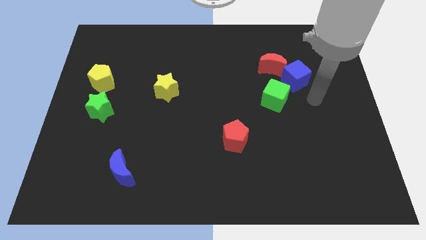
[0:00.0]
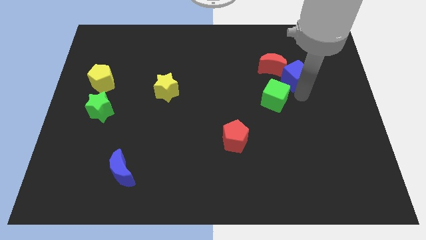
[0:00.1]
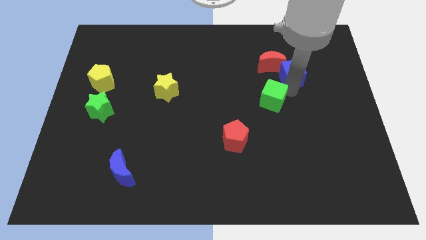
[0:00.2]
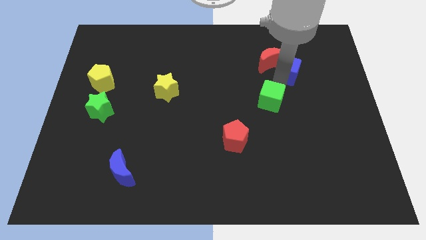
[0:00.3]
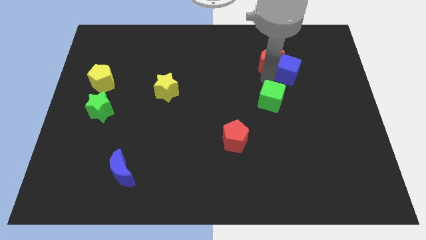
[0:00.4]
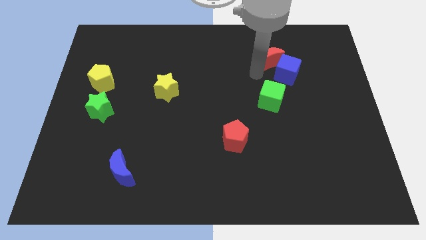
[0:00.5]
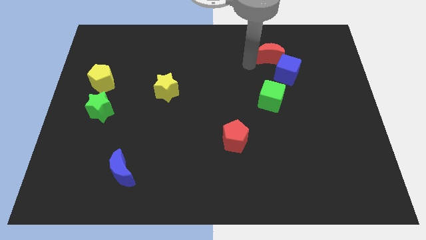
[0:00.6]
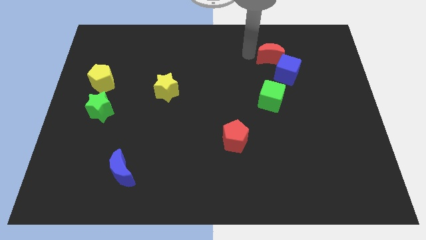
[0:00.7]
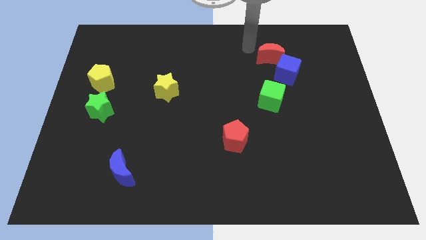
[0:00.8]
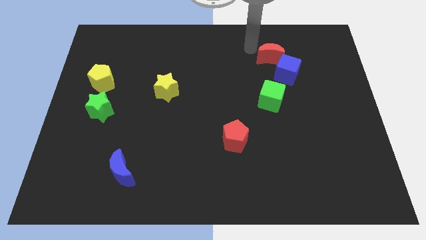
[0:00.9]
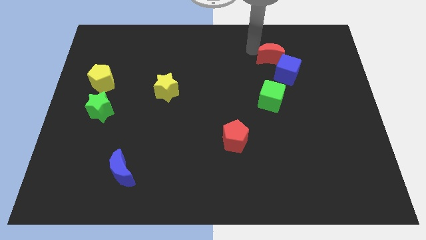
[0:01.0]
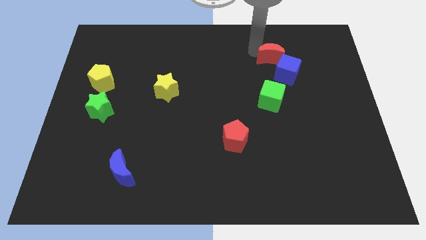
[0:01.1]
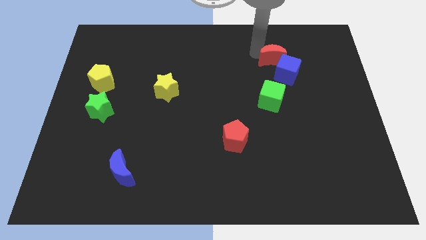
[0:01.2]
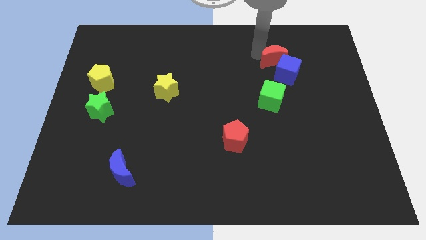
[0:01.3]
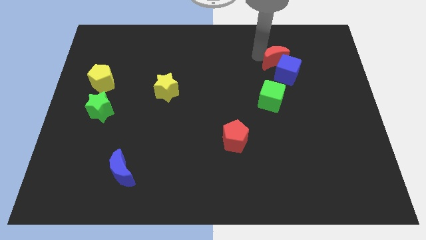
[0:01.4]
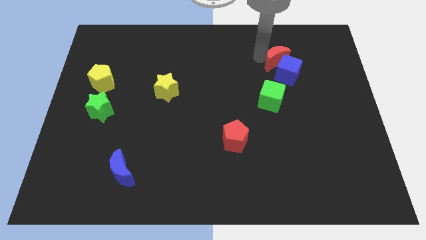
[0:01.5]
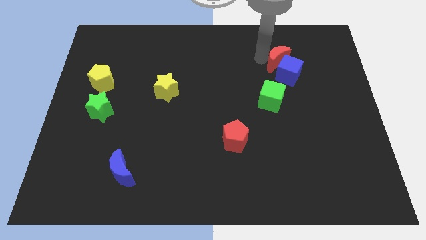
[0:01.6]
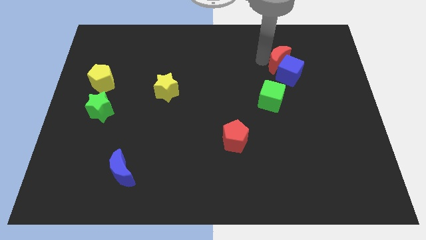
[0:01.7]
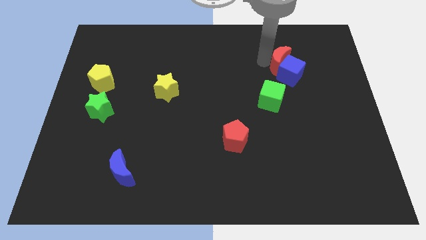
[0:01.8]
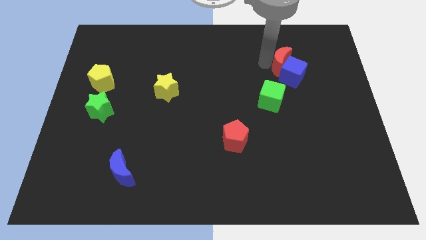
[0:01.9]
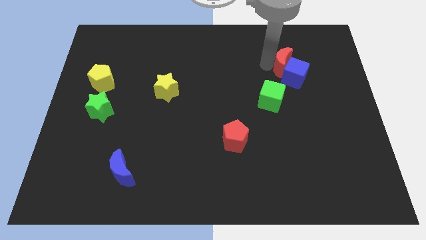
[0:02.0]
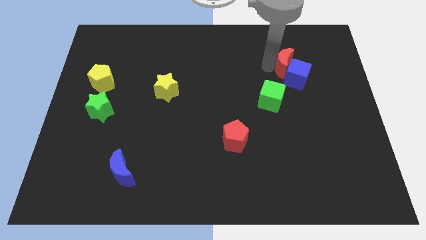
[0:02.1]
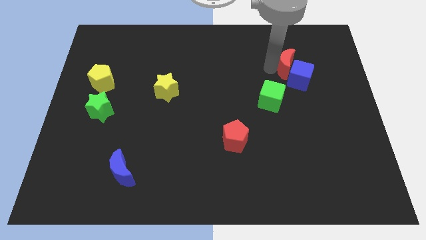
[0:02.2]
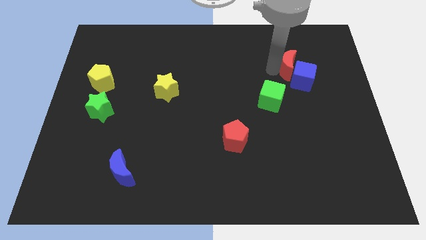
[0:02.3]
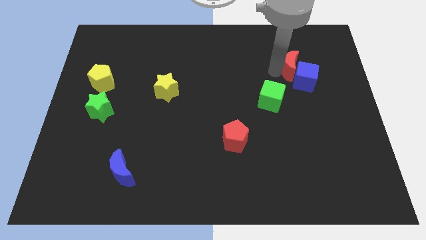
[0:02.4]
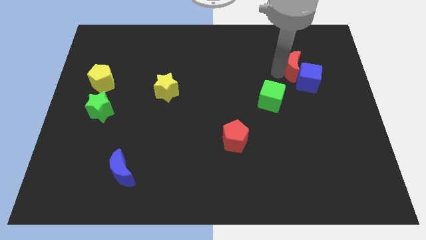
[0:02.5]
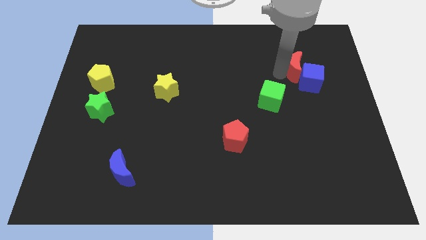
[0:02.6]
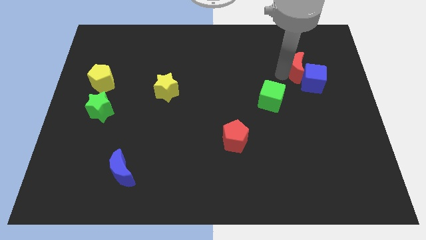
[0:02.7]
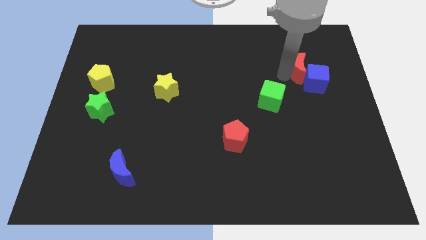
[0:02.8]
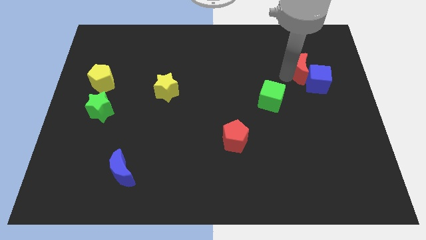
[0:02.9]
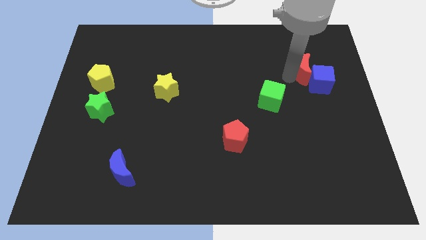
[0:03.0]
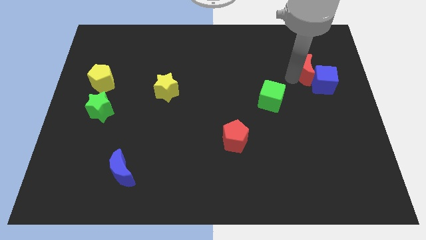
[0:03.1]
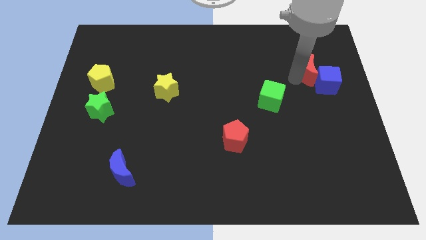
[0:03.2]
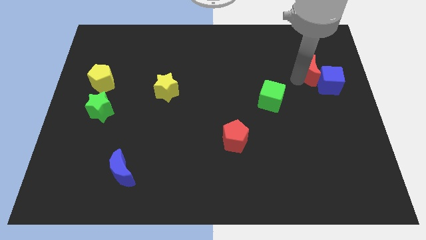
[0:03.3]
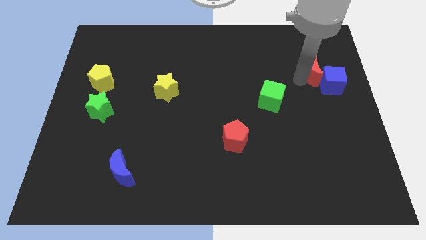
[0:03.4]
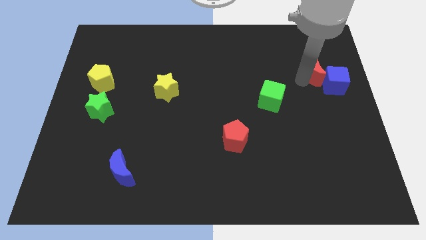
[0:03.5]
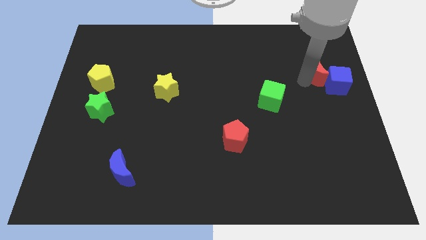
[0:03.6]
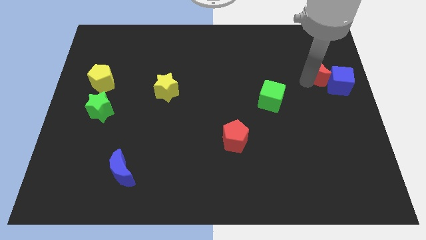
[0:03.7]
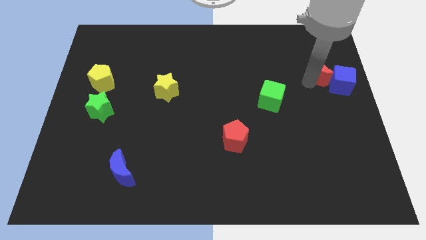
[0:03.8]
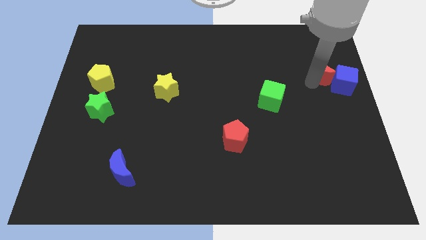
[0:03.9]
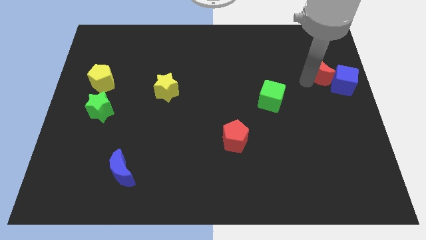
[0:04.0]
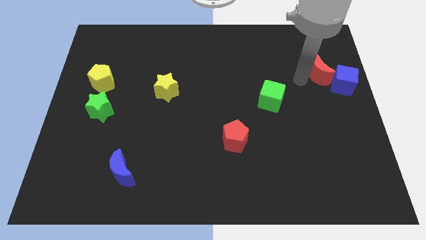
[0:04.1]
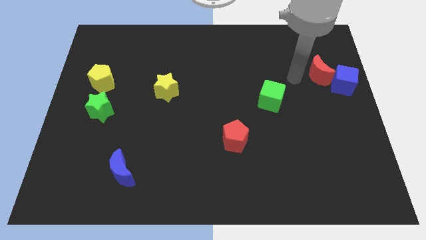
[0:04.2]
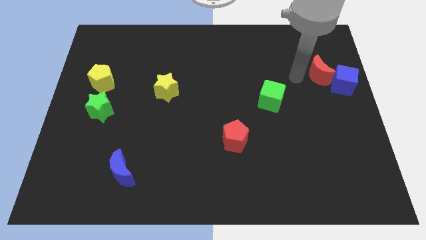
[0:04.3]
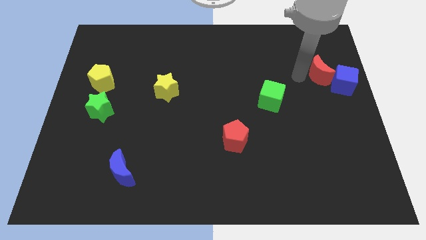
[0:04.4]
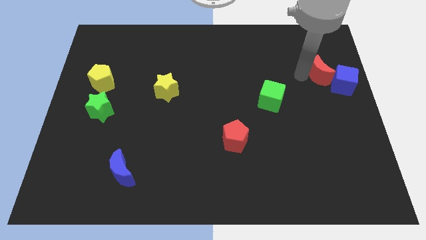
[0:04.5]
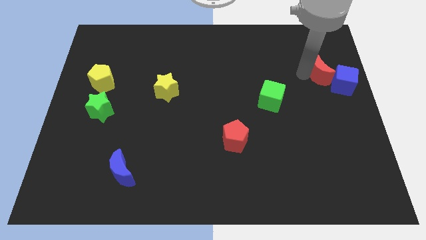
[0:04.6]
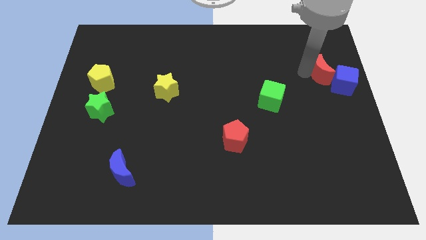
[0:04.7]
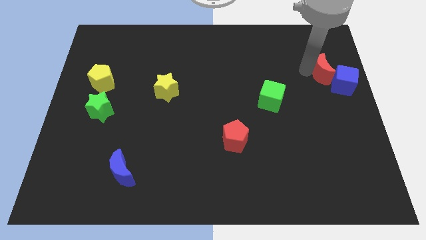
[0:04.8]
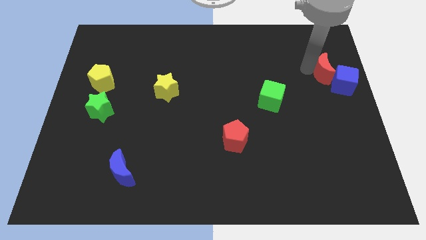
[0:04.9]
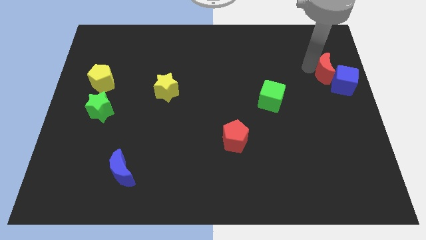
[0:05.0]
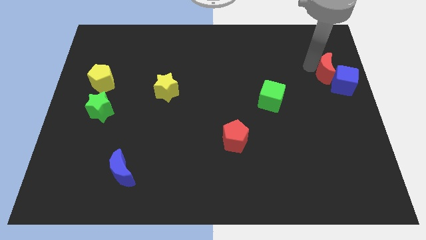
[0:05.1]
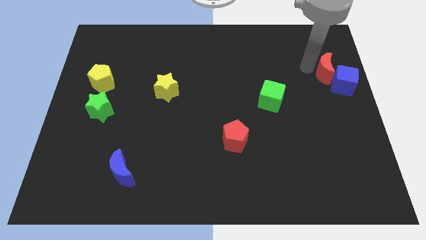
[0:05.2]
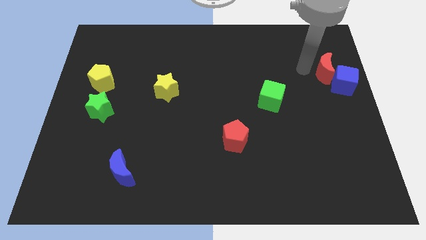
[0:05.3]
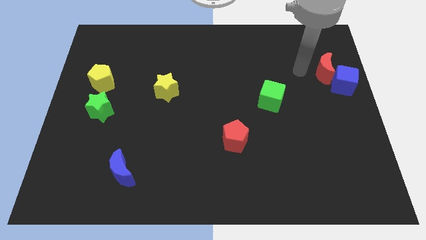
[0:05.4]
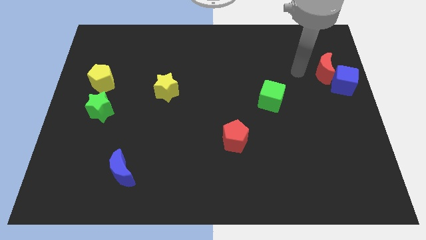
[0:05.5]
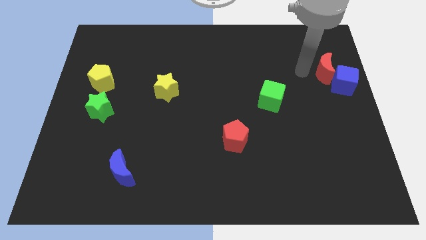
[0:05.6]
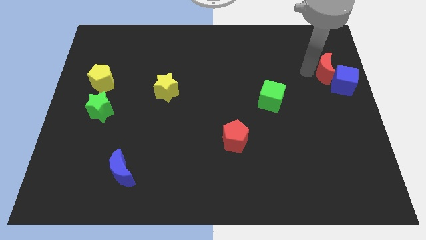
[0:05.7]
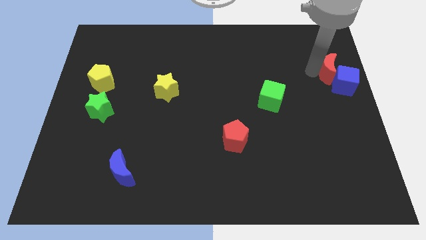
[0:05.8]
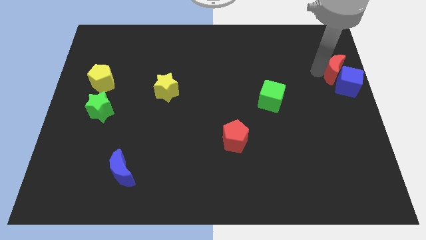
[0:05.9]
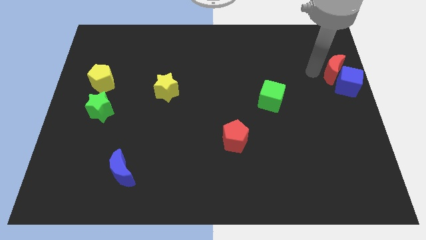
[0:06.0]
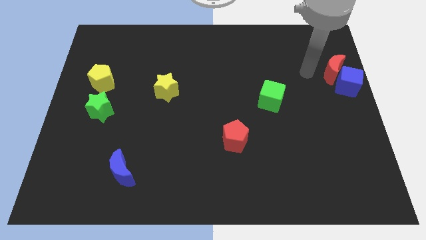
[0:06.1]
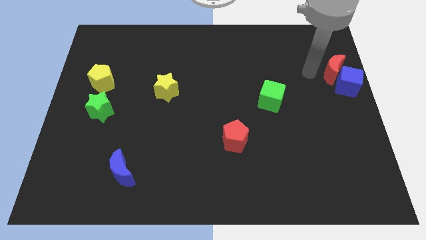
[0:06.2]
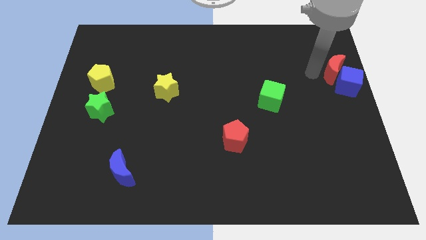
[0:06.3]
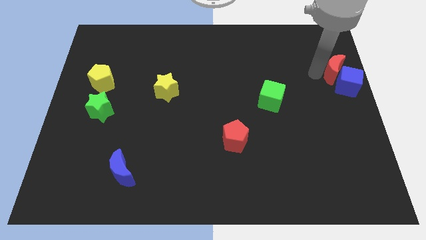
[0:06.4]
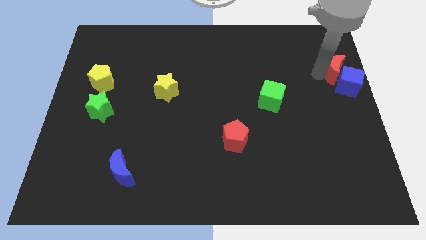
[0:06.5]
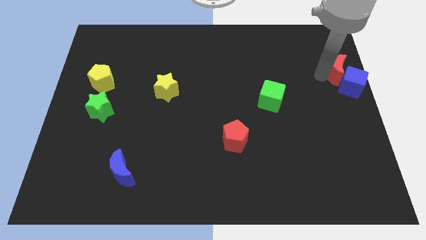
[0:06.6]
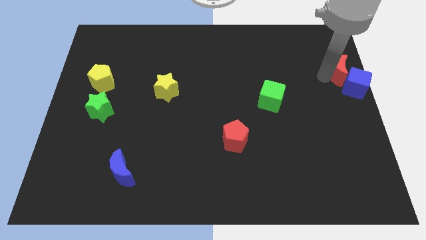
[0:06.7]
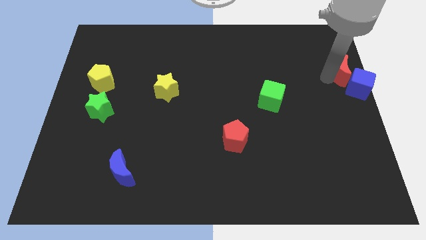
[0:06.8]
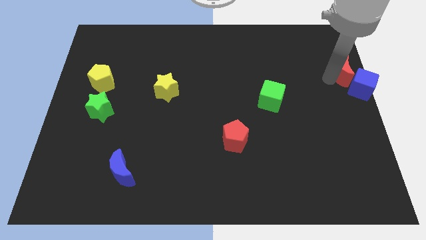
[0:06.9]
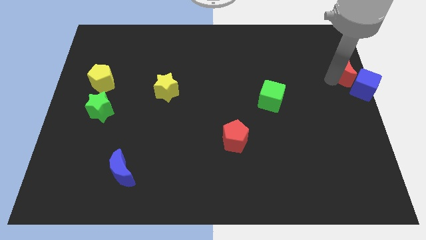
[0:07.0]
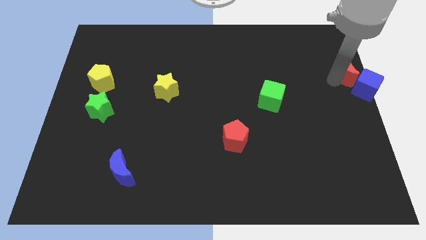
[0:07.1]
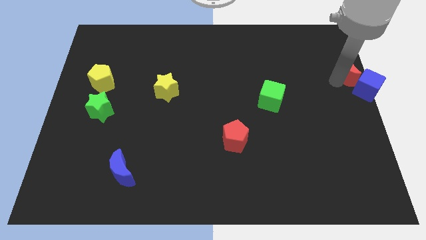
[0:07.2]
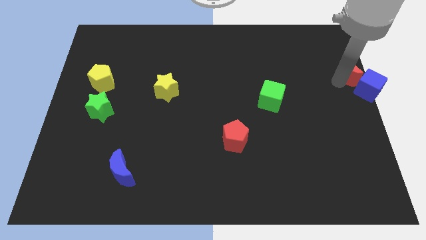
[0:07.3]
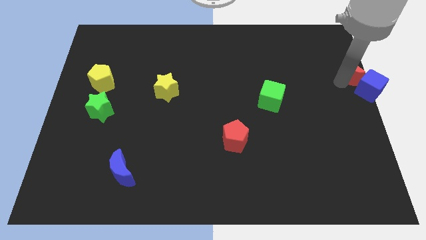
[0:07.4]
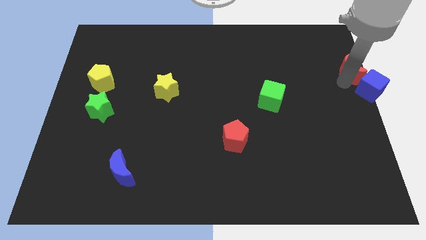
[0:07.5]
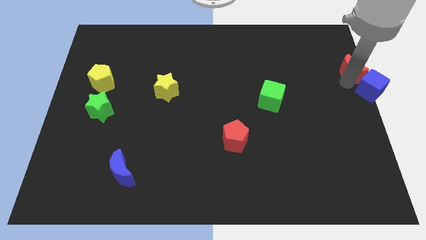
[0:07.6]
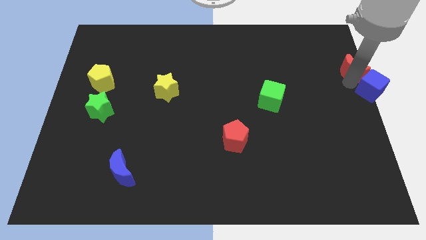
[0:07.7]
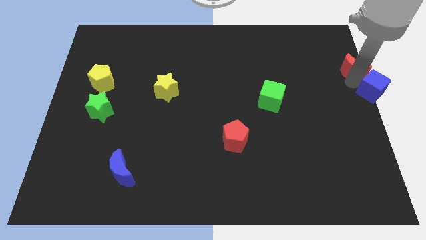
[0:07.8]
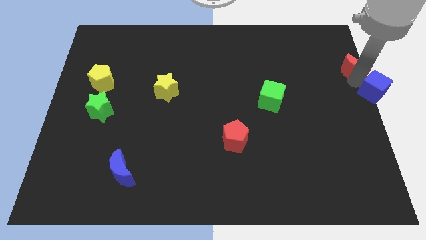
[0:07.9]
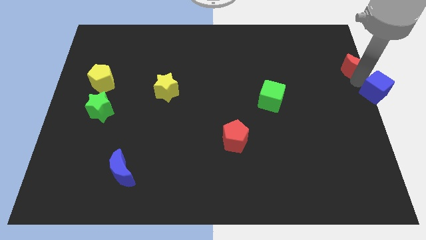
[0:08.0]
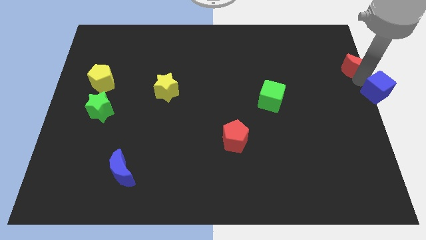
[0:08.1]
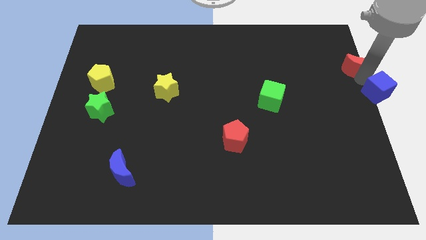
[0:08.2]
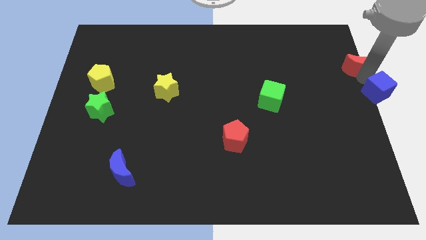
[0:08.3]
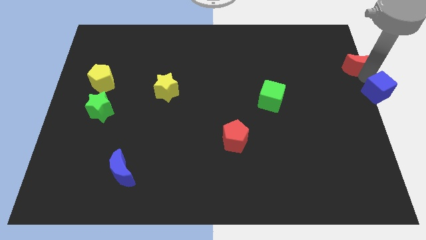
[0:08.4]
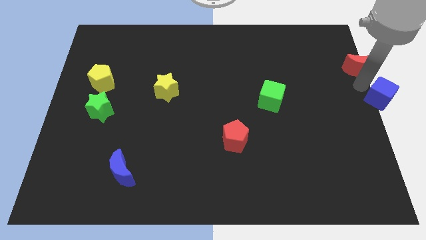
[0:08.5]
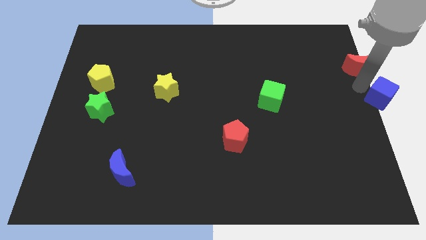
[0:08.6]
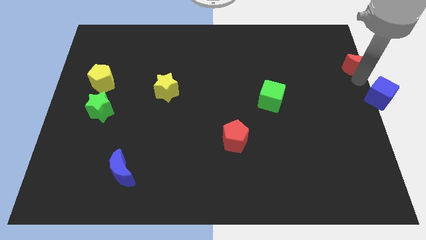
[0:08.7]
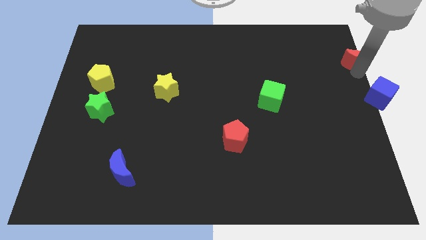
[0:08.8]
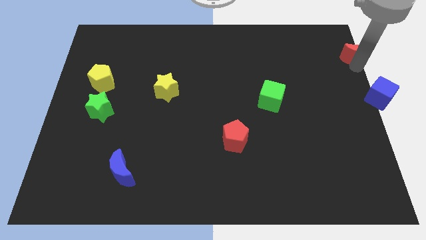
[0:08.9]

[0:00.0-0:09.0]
move the red moon to the top right of the board
